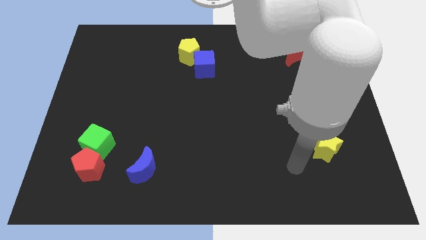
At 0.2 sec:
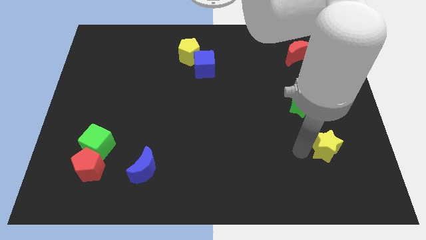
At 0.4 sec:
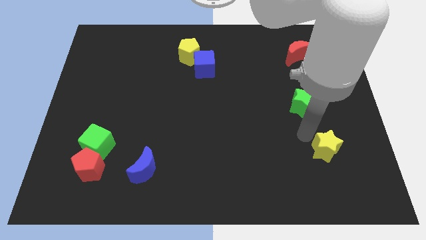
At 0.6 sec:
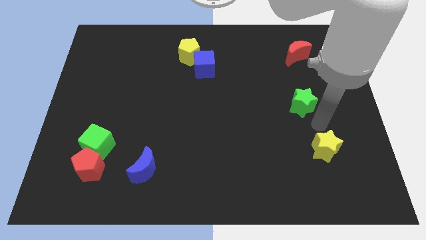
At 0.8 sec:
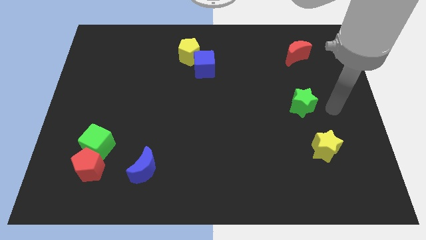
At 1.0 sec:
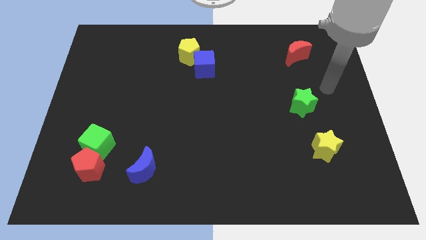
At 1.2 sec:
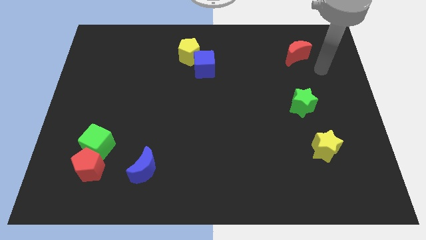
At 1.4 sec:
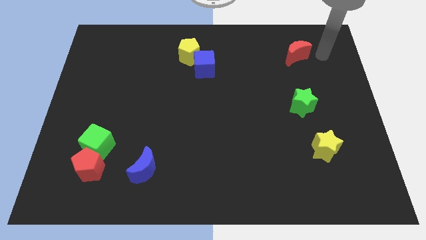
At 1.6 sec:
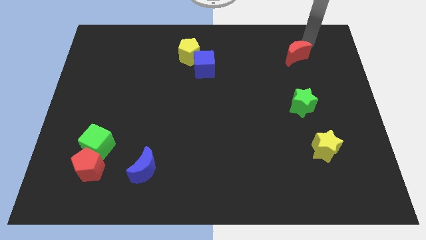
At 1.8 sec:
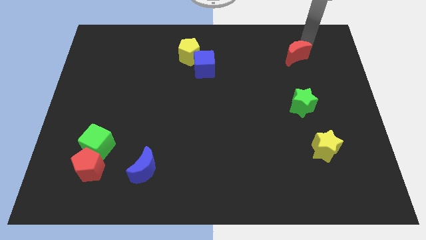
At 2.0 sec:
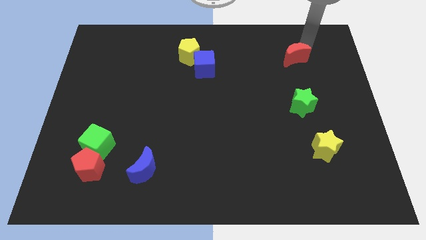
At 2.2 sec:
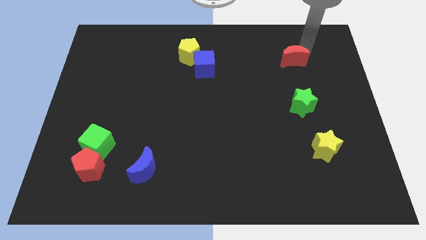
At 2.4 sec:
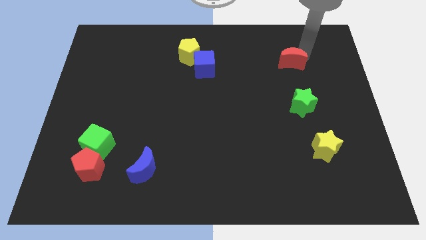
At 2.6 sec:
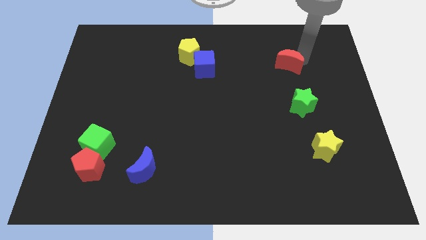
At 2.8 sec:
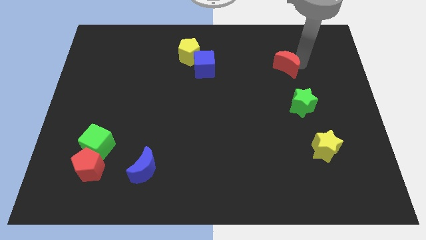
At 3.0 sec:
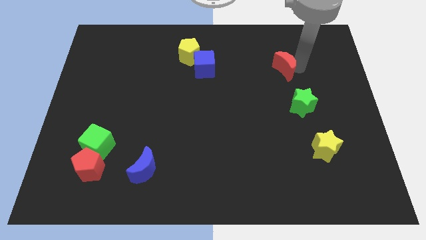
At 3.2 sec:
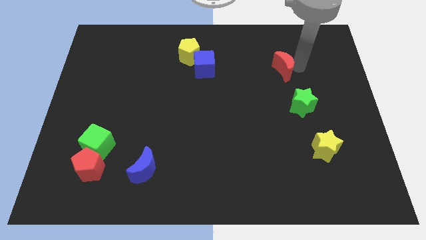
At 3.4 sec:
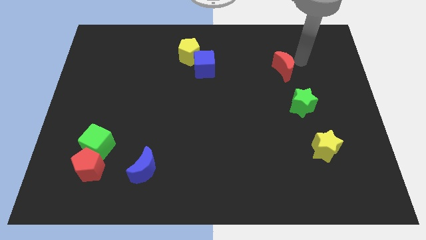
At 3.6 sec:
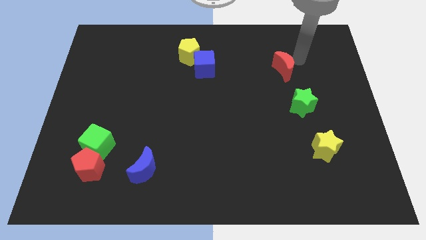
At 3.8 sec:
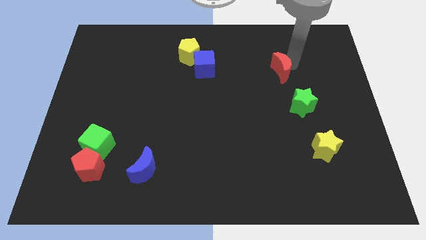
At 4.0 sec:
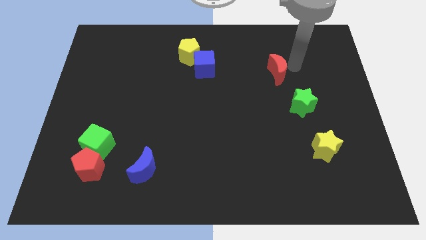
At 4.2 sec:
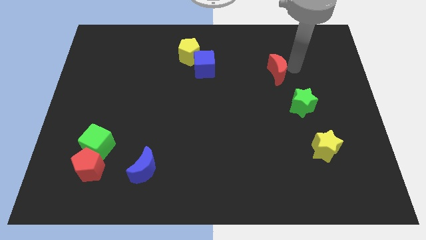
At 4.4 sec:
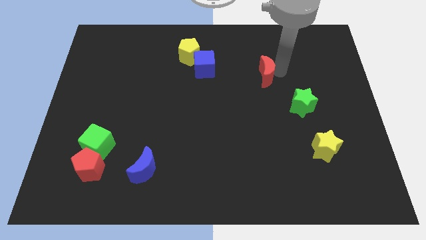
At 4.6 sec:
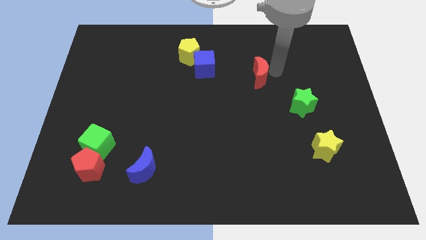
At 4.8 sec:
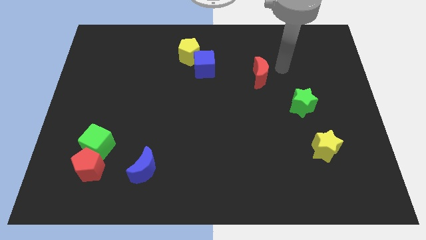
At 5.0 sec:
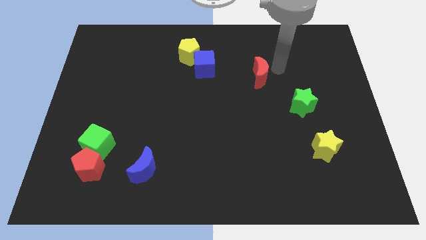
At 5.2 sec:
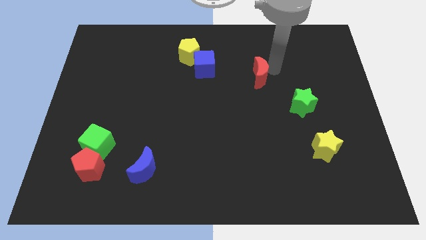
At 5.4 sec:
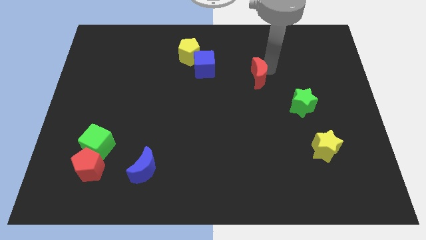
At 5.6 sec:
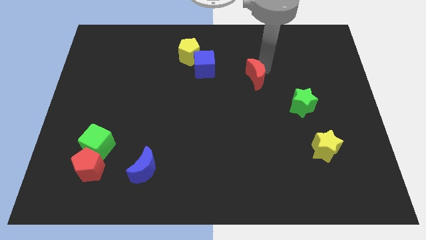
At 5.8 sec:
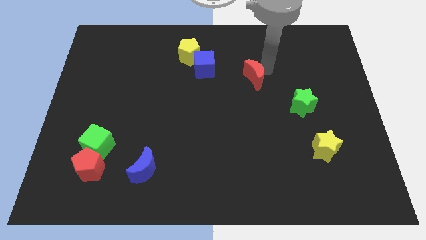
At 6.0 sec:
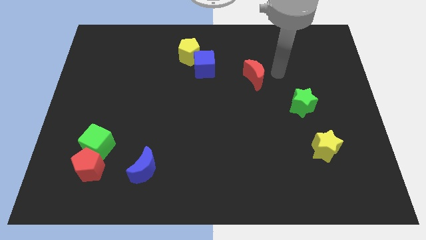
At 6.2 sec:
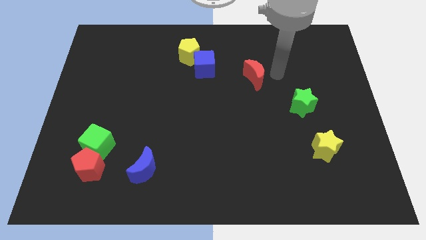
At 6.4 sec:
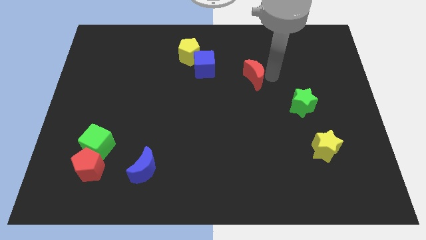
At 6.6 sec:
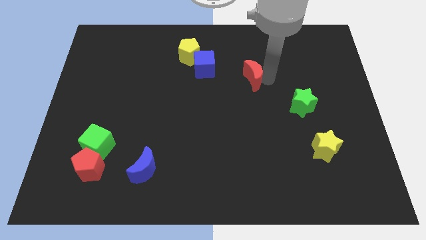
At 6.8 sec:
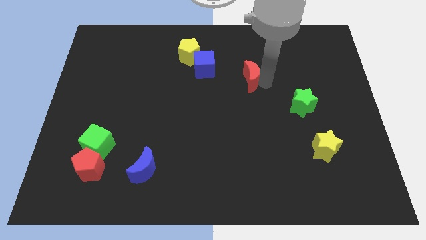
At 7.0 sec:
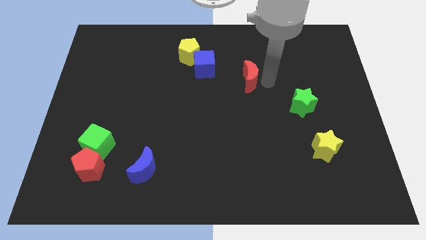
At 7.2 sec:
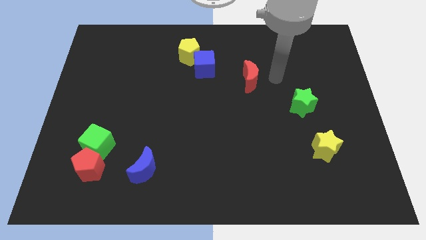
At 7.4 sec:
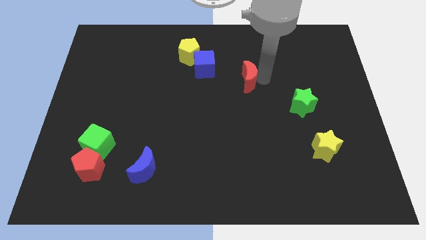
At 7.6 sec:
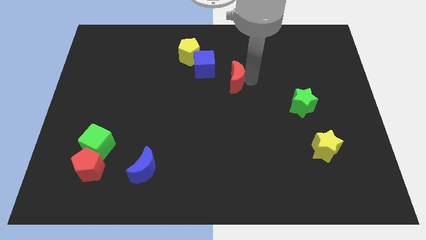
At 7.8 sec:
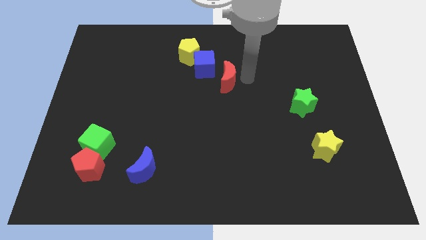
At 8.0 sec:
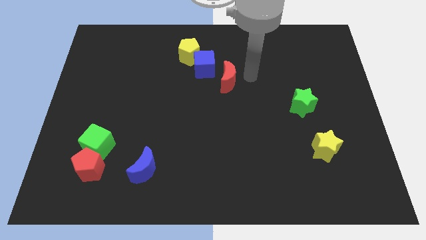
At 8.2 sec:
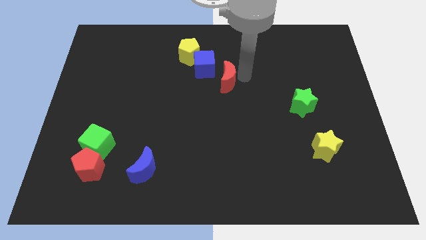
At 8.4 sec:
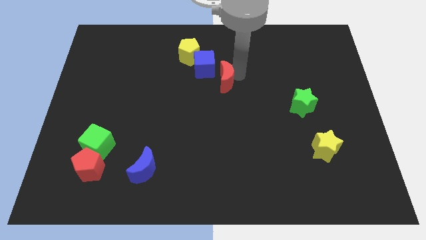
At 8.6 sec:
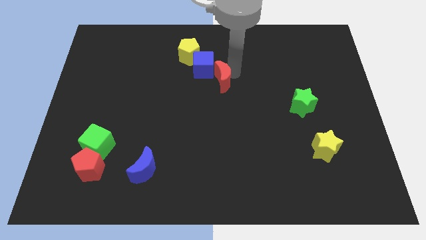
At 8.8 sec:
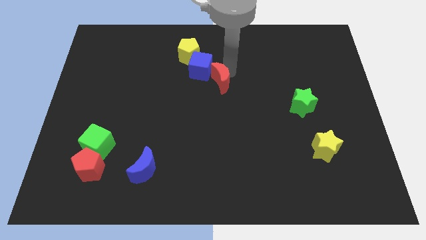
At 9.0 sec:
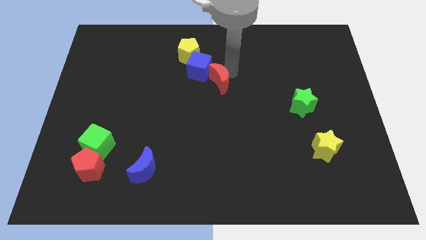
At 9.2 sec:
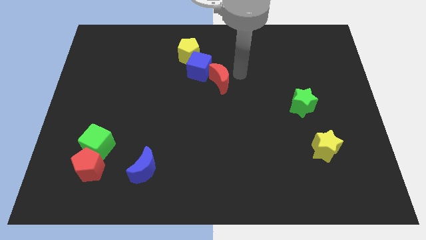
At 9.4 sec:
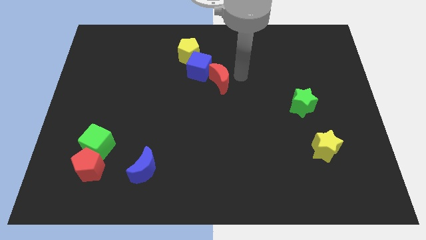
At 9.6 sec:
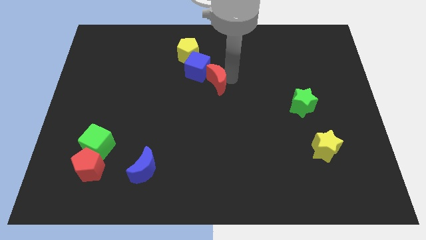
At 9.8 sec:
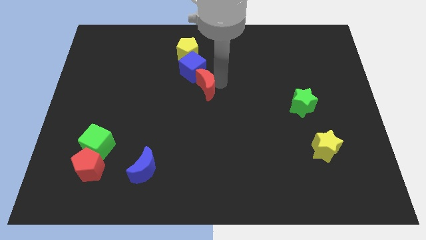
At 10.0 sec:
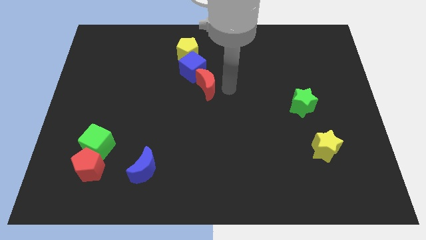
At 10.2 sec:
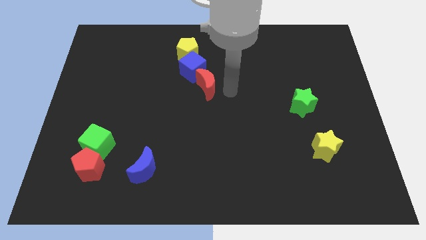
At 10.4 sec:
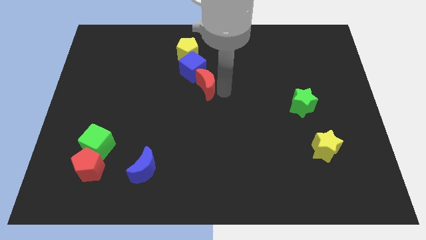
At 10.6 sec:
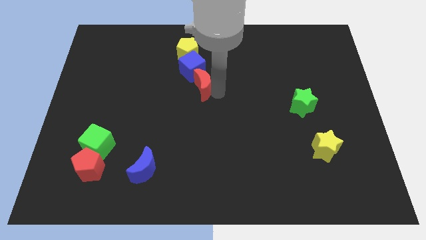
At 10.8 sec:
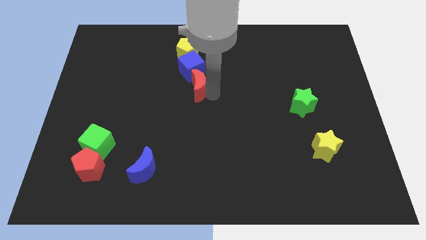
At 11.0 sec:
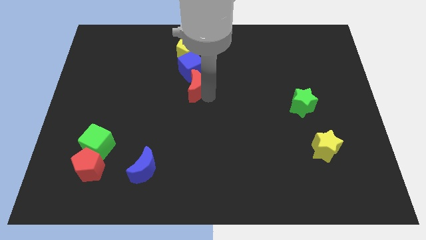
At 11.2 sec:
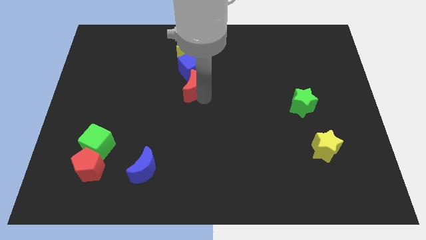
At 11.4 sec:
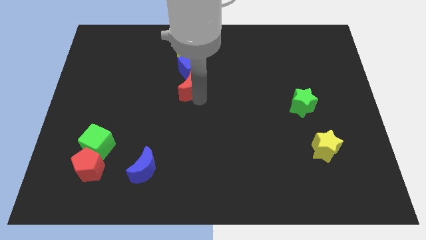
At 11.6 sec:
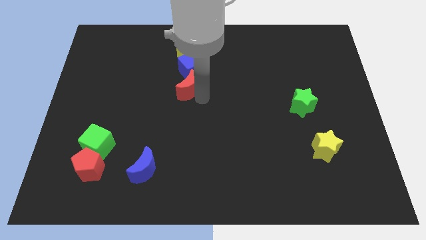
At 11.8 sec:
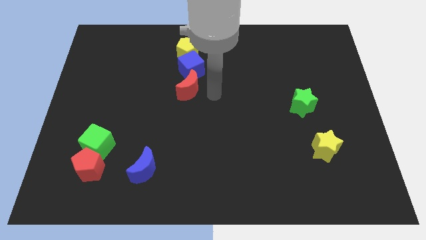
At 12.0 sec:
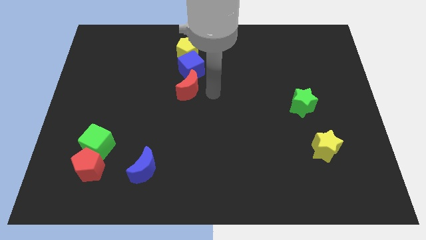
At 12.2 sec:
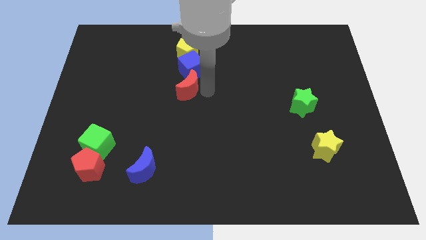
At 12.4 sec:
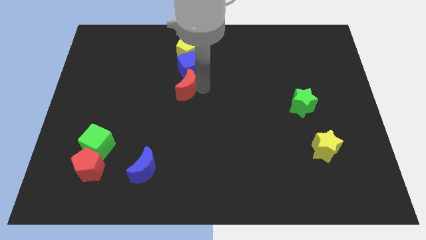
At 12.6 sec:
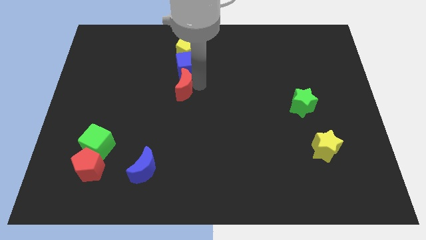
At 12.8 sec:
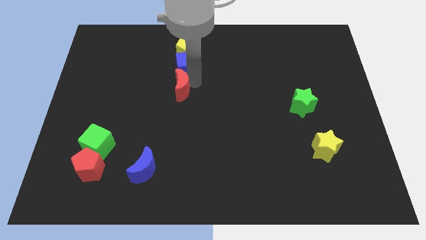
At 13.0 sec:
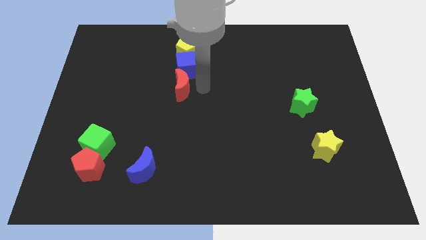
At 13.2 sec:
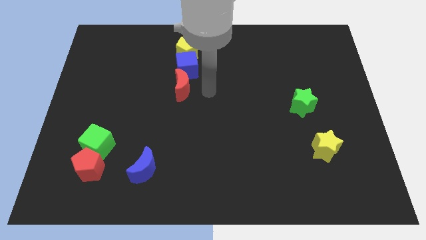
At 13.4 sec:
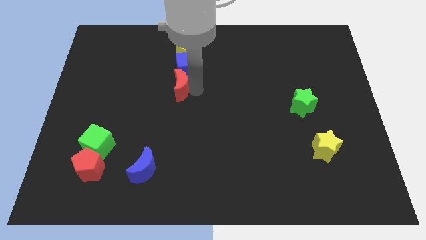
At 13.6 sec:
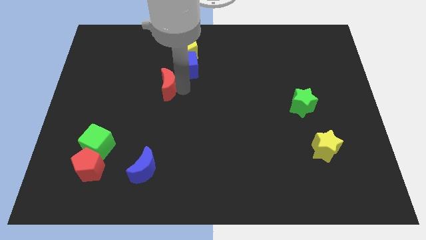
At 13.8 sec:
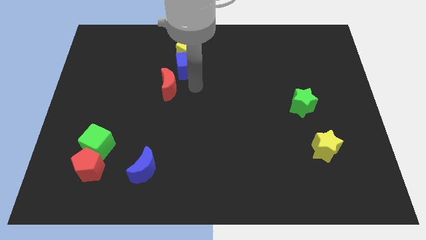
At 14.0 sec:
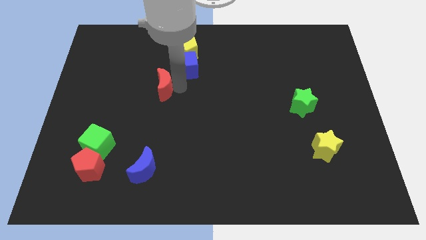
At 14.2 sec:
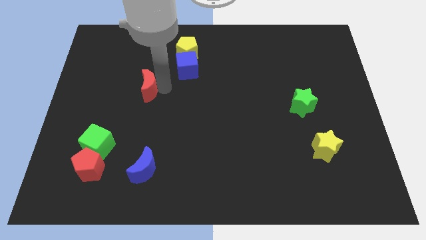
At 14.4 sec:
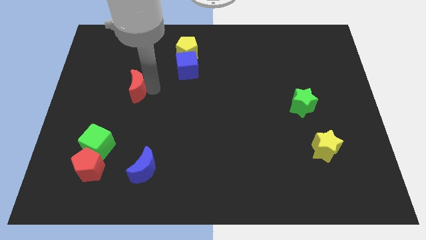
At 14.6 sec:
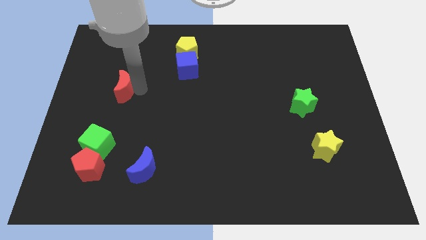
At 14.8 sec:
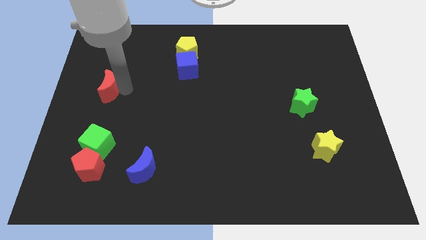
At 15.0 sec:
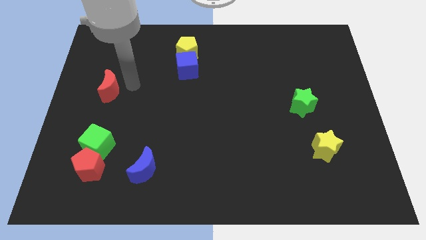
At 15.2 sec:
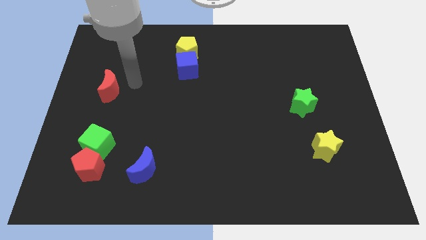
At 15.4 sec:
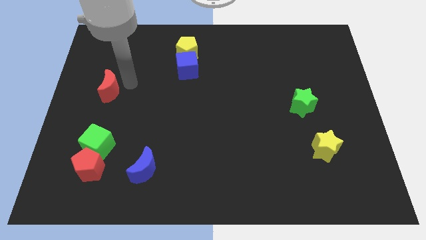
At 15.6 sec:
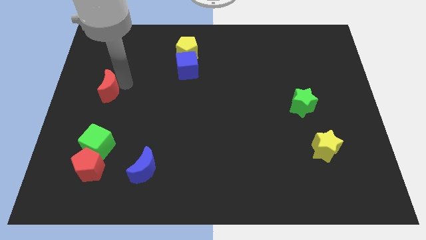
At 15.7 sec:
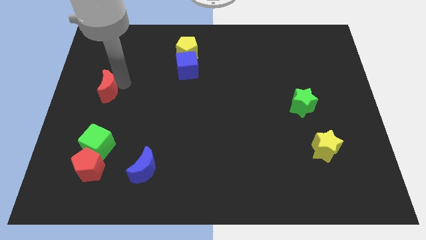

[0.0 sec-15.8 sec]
move the red moon to the center left

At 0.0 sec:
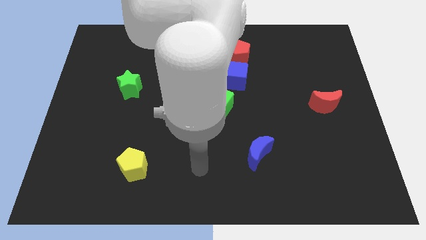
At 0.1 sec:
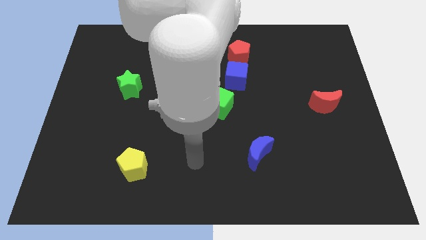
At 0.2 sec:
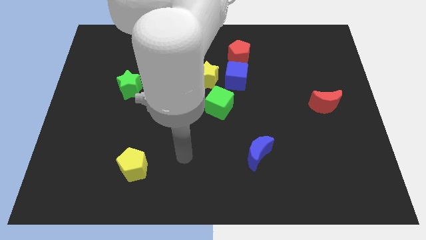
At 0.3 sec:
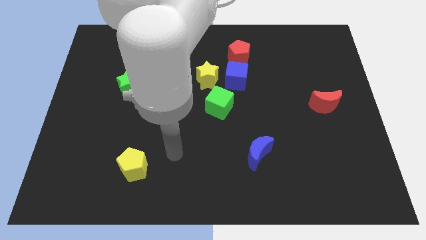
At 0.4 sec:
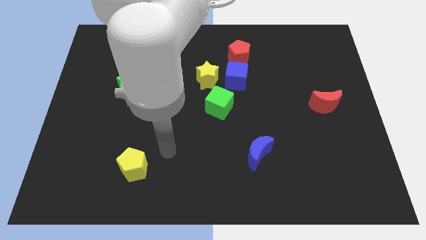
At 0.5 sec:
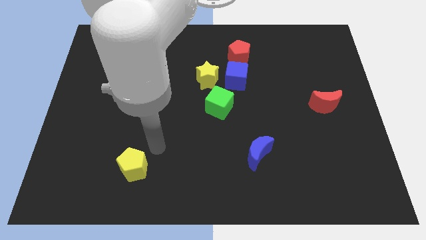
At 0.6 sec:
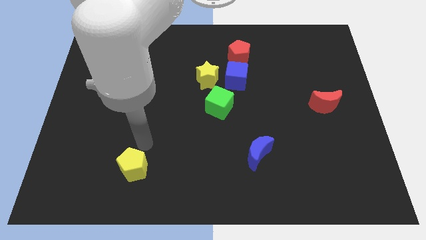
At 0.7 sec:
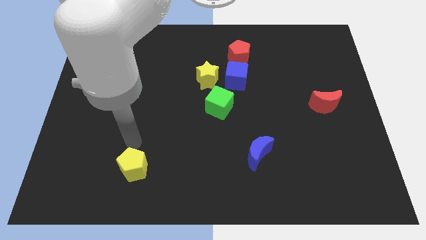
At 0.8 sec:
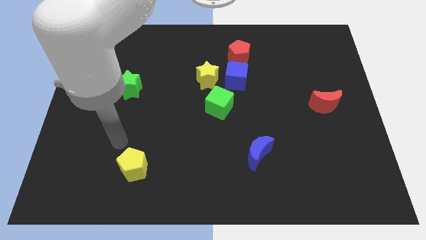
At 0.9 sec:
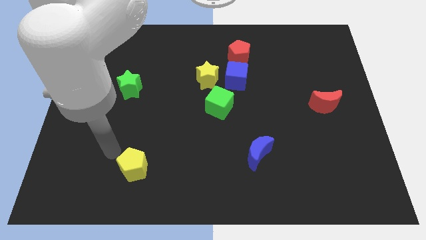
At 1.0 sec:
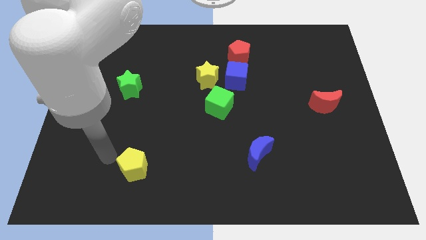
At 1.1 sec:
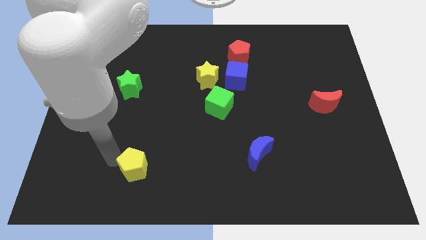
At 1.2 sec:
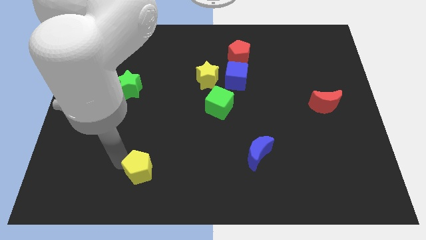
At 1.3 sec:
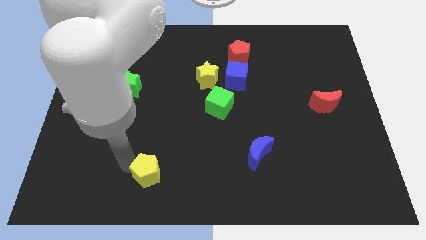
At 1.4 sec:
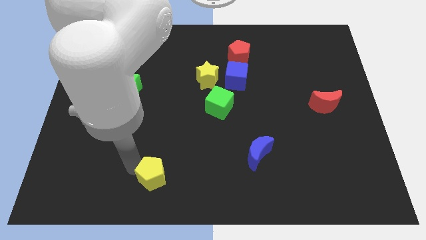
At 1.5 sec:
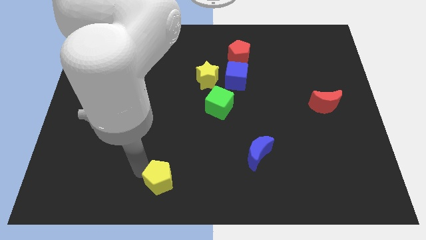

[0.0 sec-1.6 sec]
slide the yellow pentagon to the bottom side
